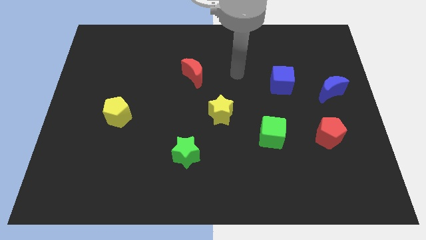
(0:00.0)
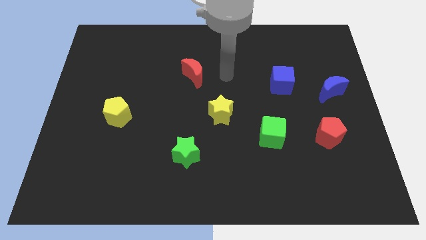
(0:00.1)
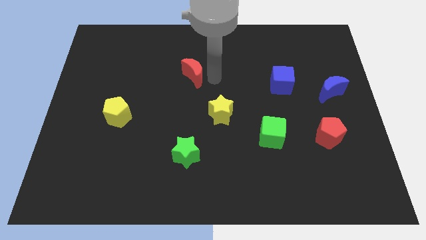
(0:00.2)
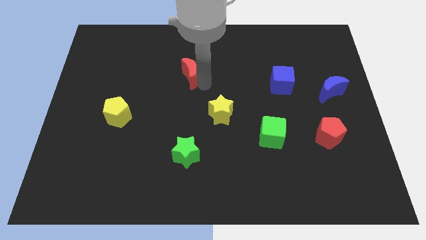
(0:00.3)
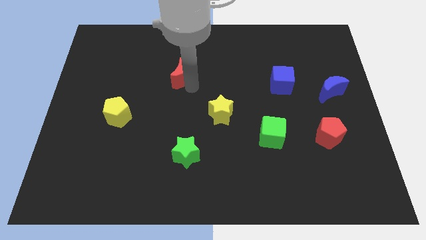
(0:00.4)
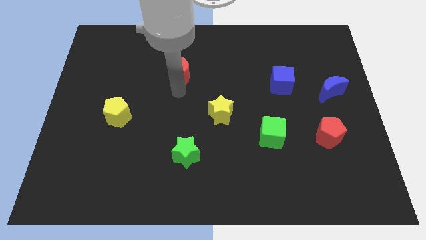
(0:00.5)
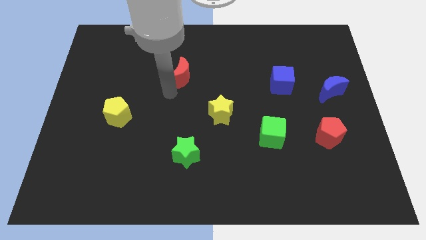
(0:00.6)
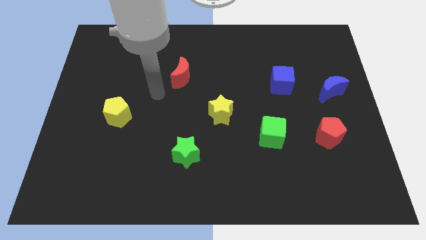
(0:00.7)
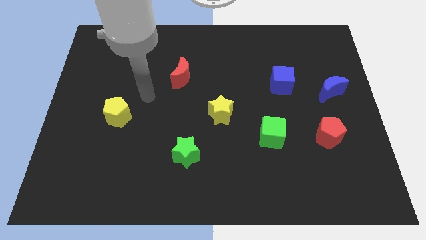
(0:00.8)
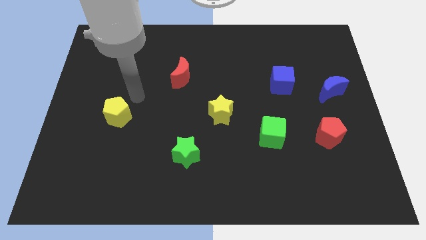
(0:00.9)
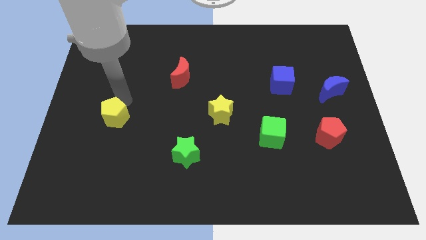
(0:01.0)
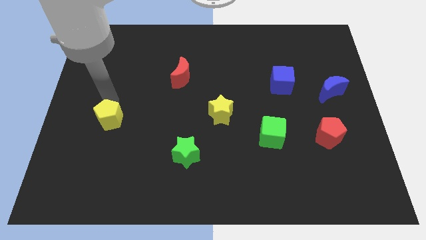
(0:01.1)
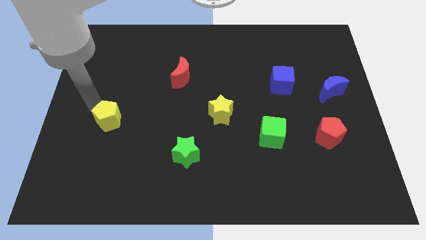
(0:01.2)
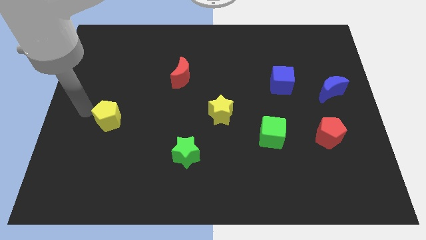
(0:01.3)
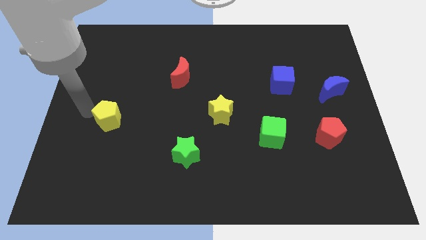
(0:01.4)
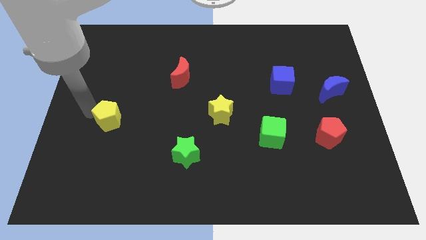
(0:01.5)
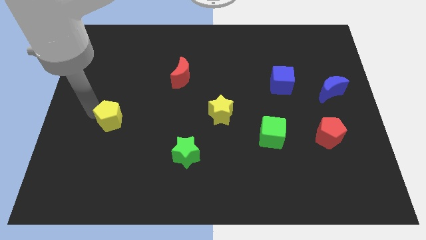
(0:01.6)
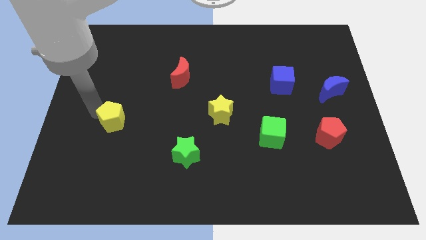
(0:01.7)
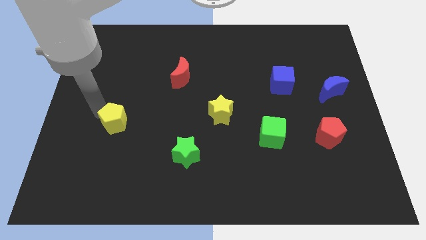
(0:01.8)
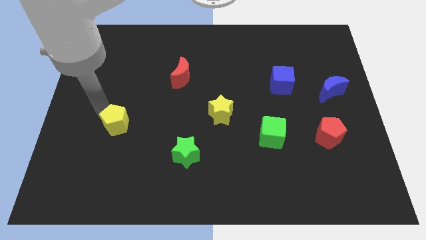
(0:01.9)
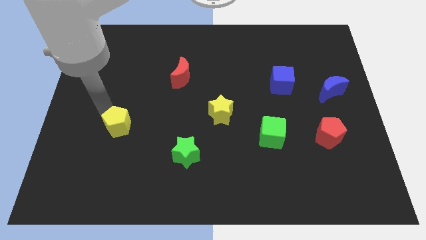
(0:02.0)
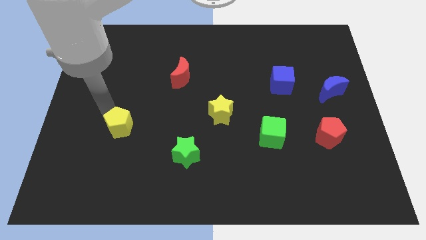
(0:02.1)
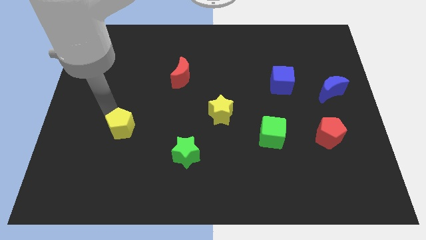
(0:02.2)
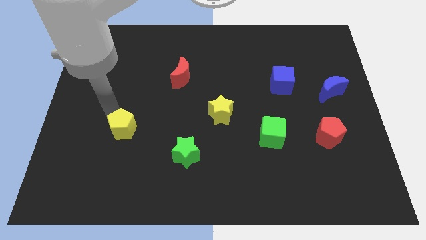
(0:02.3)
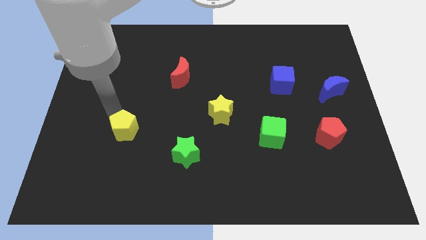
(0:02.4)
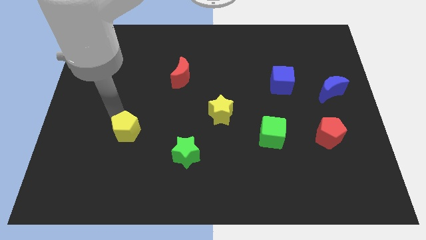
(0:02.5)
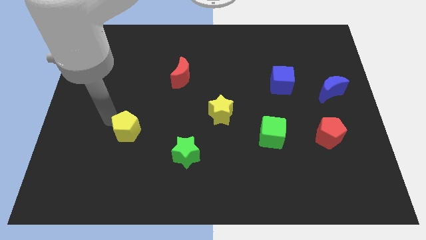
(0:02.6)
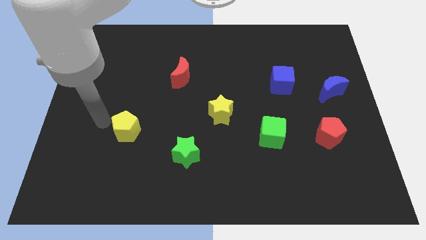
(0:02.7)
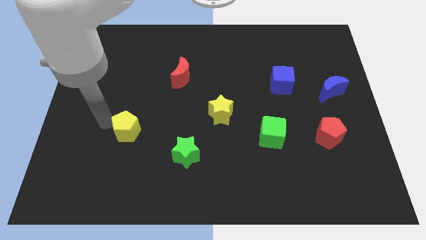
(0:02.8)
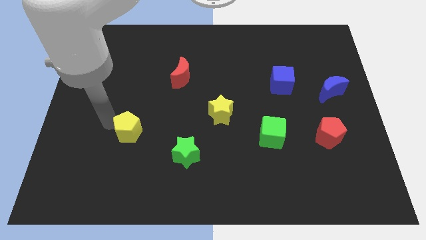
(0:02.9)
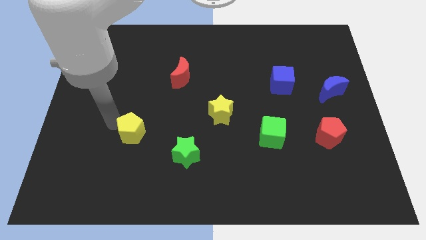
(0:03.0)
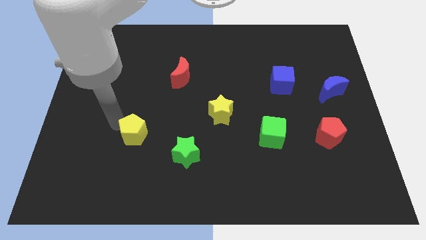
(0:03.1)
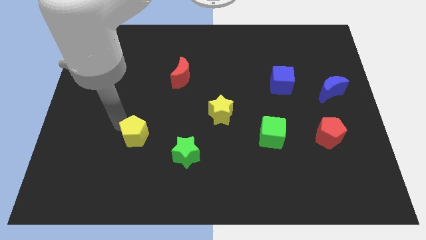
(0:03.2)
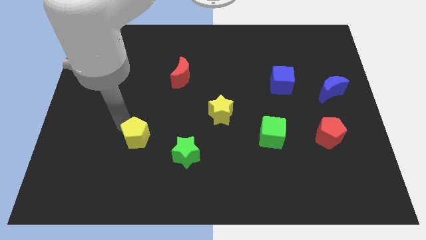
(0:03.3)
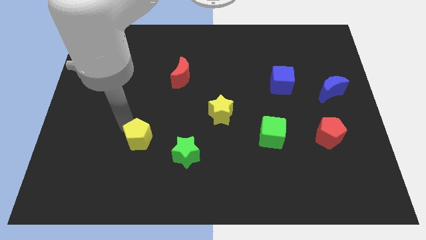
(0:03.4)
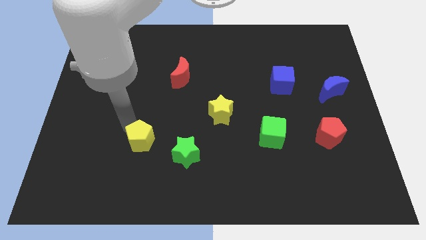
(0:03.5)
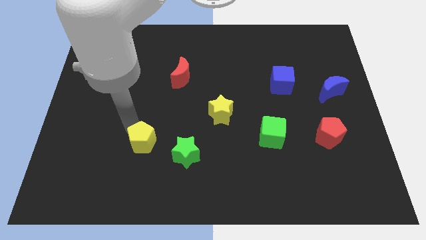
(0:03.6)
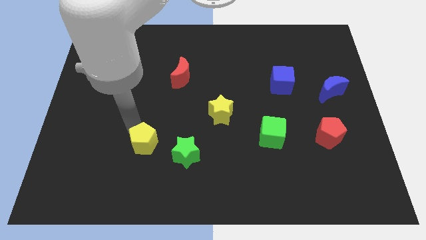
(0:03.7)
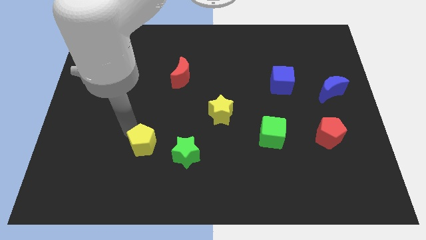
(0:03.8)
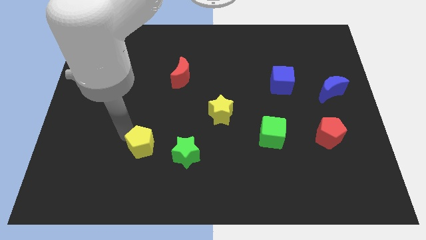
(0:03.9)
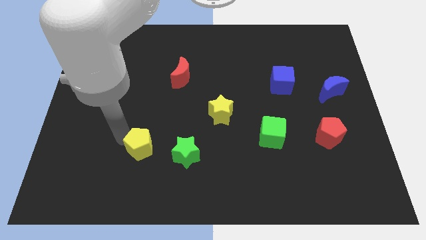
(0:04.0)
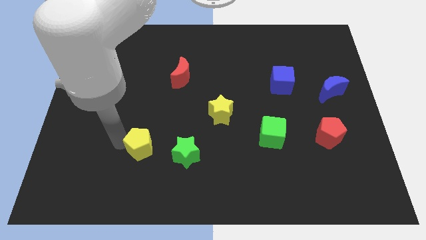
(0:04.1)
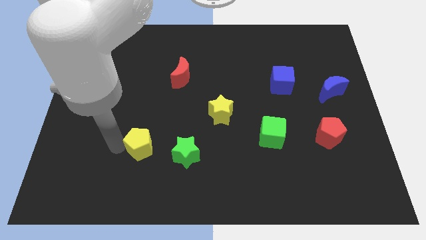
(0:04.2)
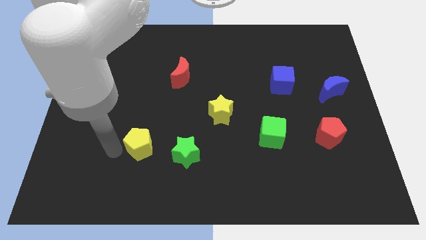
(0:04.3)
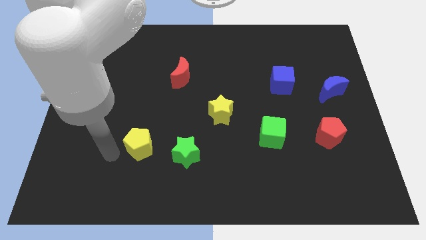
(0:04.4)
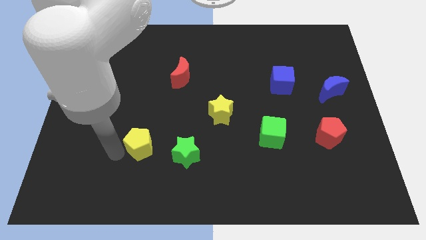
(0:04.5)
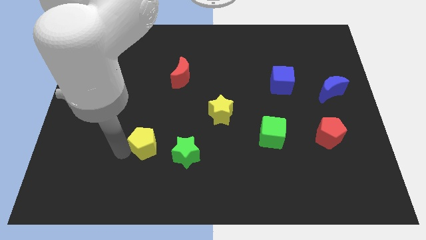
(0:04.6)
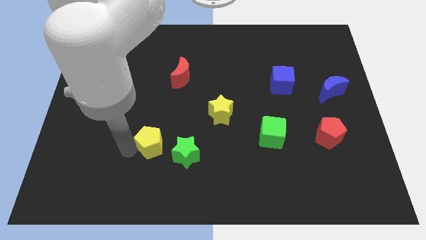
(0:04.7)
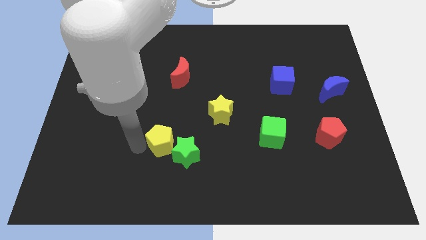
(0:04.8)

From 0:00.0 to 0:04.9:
push the yellow pentagon to the green star

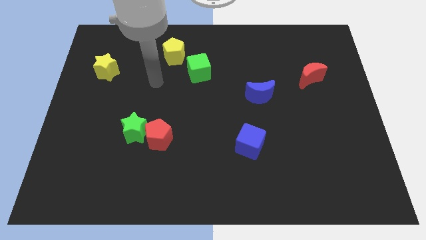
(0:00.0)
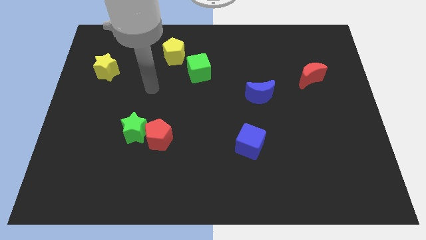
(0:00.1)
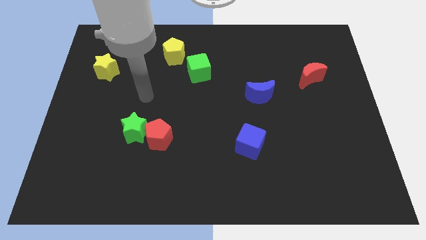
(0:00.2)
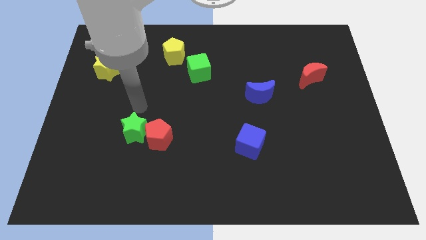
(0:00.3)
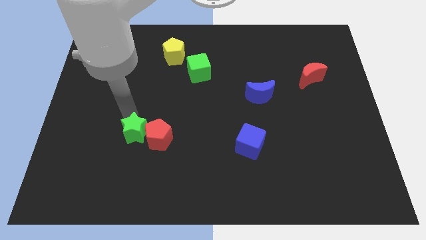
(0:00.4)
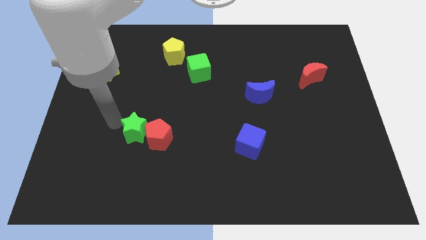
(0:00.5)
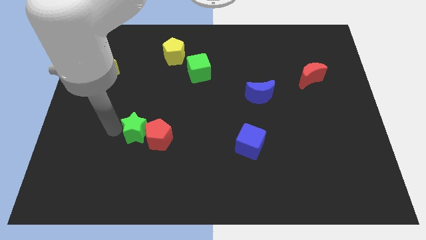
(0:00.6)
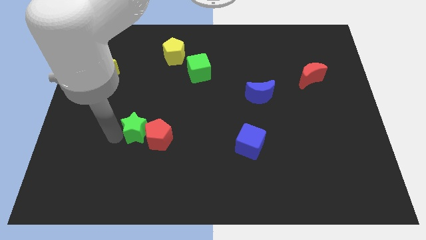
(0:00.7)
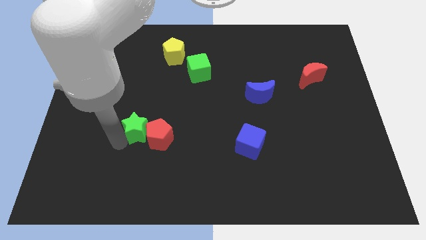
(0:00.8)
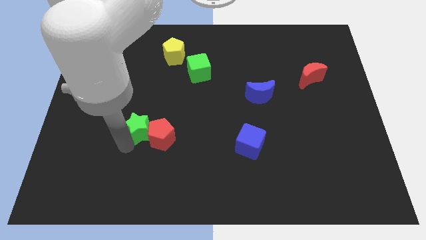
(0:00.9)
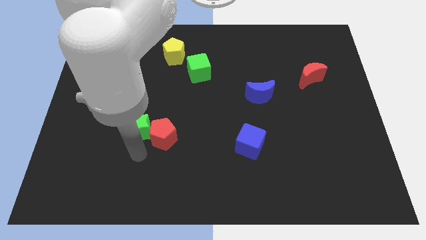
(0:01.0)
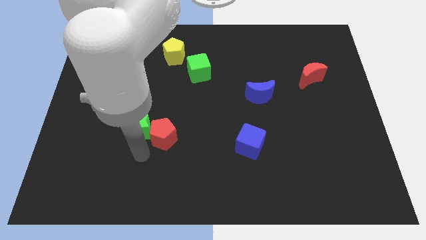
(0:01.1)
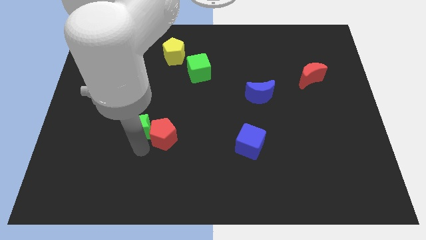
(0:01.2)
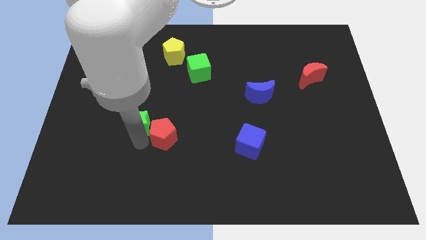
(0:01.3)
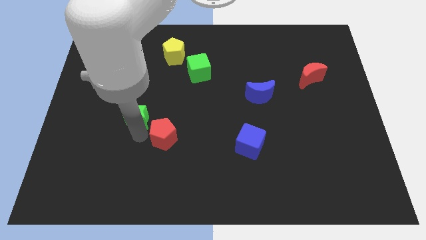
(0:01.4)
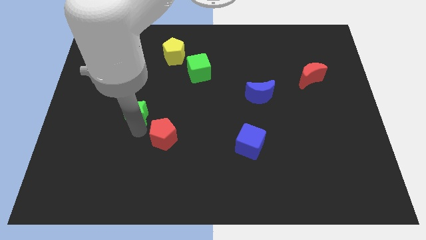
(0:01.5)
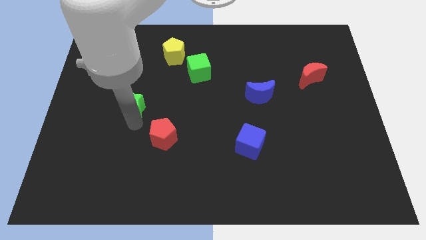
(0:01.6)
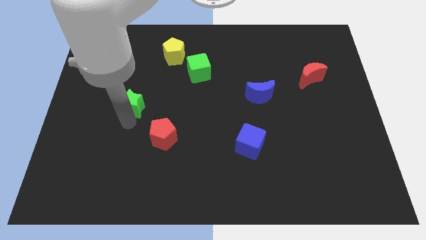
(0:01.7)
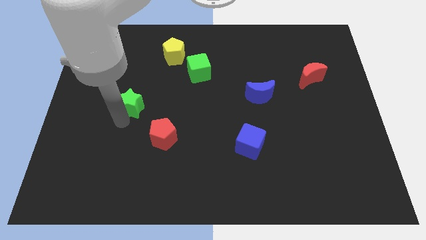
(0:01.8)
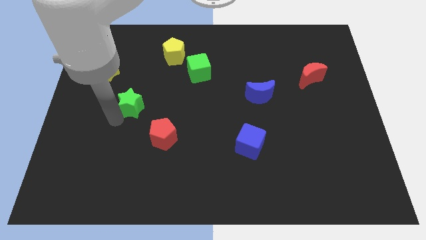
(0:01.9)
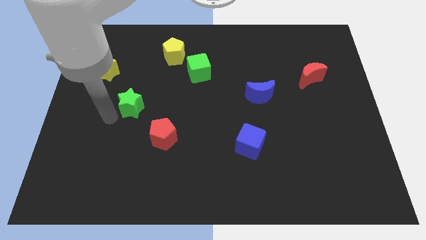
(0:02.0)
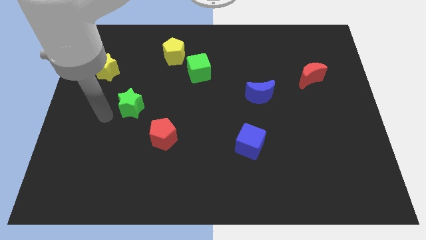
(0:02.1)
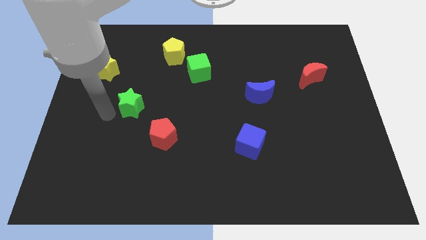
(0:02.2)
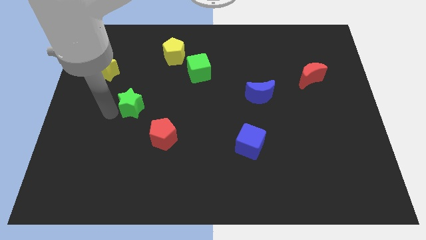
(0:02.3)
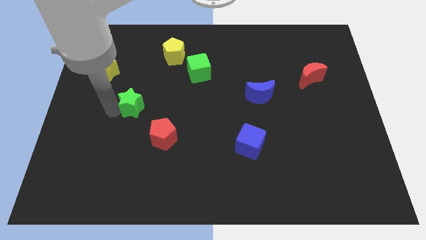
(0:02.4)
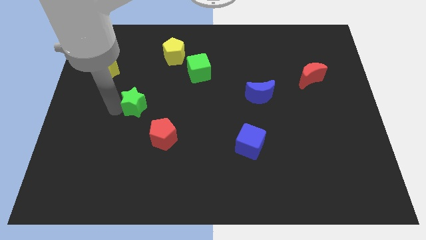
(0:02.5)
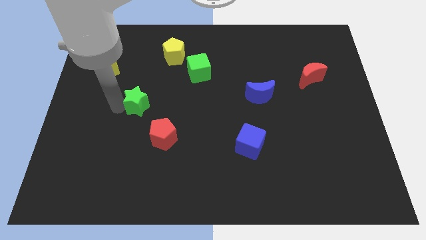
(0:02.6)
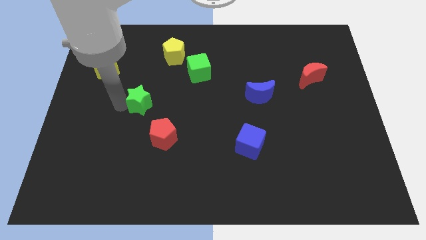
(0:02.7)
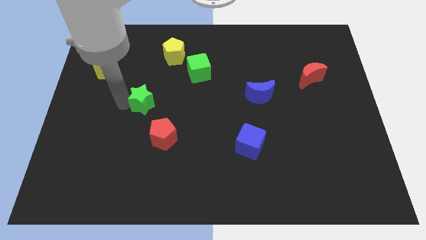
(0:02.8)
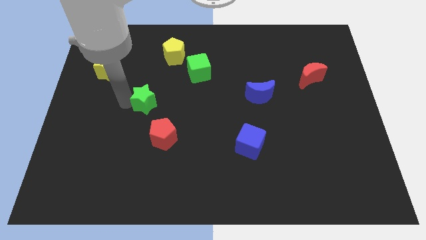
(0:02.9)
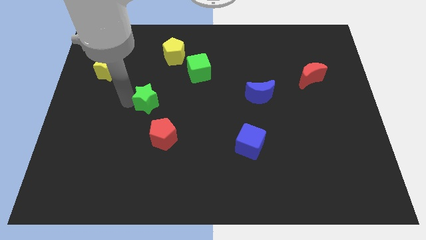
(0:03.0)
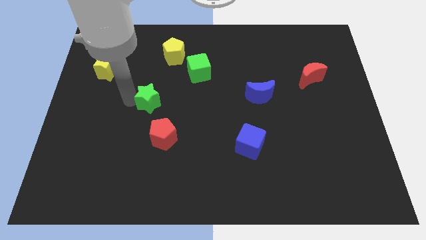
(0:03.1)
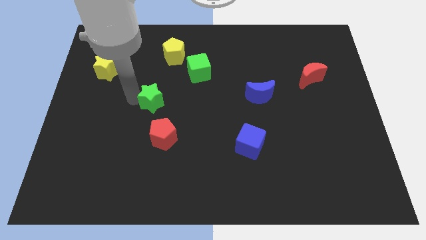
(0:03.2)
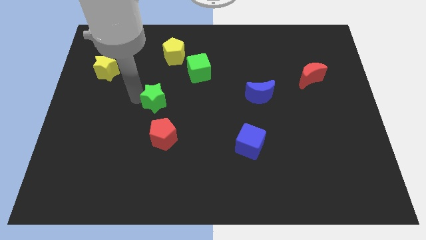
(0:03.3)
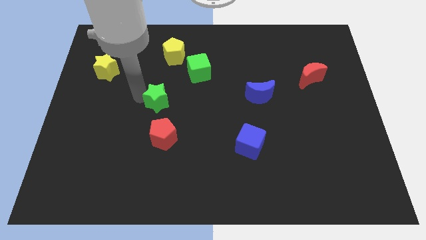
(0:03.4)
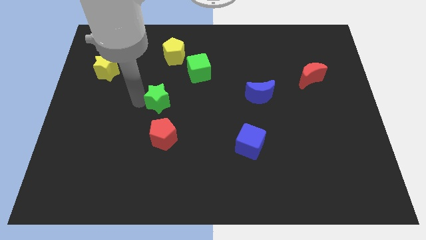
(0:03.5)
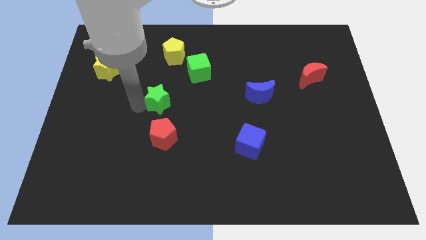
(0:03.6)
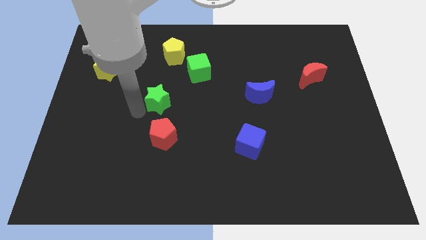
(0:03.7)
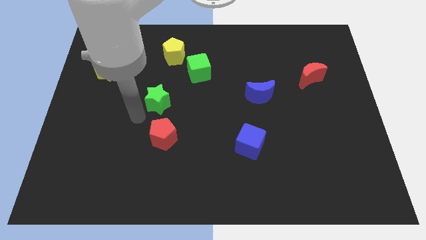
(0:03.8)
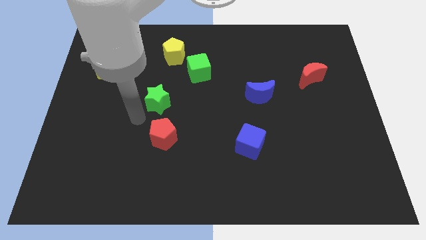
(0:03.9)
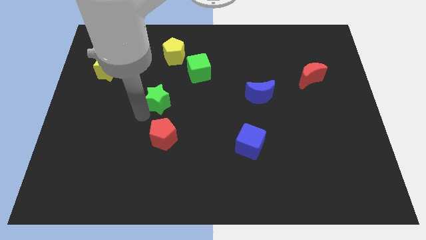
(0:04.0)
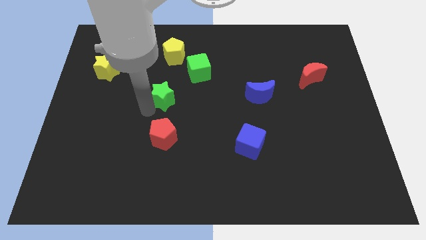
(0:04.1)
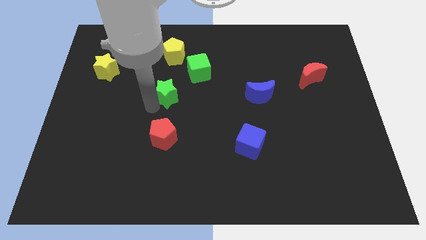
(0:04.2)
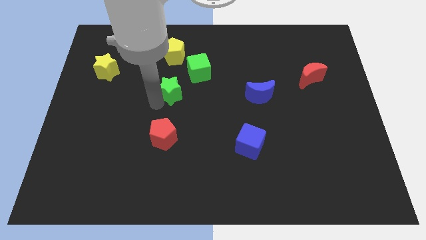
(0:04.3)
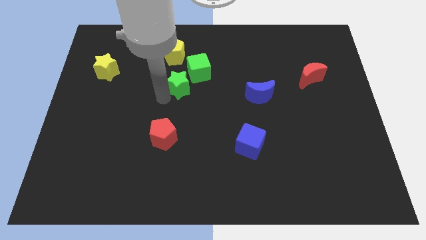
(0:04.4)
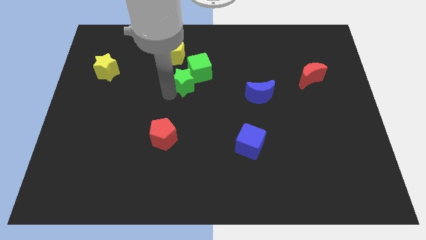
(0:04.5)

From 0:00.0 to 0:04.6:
put the green star towards the green cube
